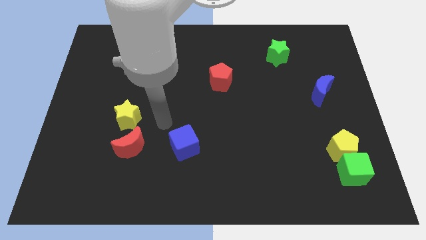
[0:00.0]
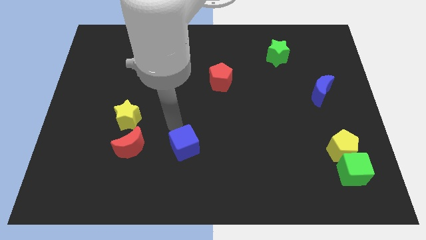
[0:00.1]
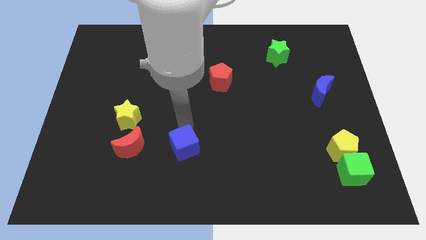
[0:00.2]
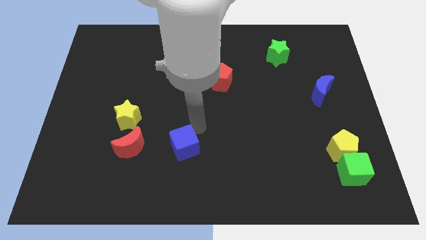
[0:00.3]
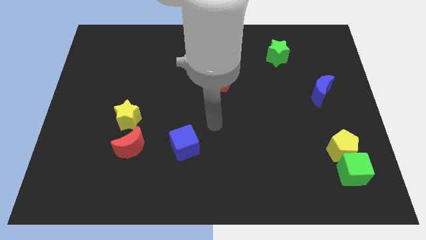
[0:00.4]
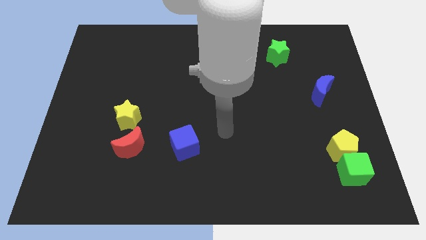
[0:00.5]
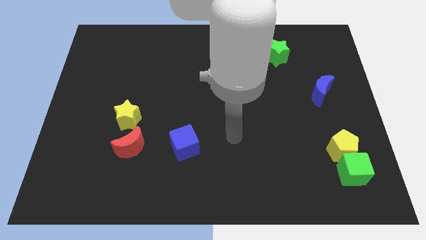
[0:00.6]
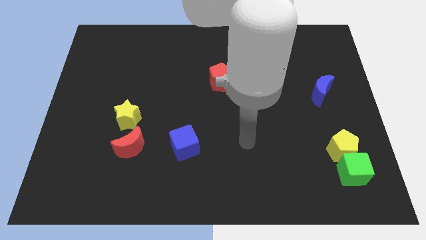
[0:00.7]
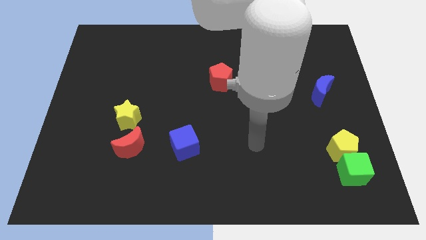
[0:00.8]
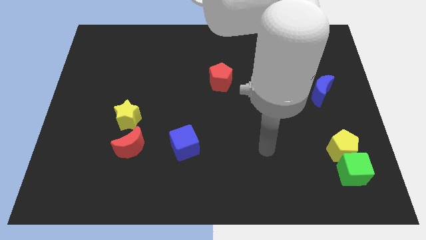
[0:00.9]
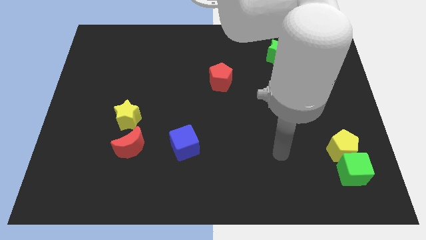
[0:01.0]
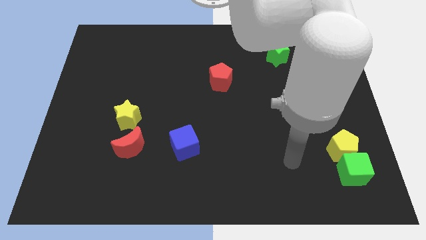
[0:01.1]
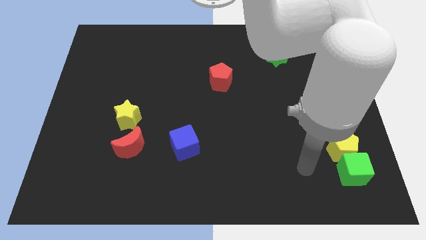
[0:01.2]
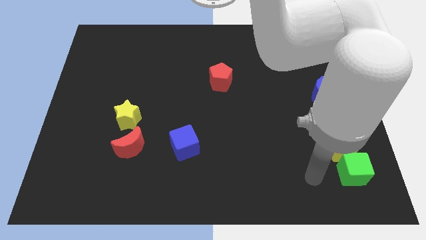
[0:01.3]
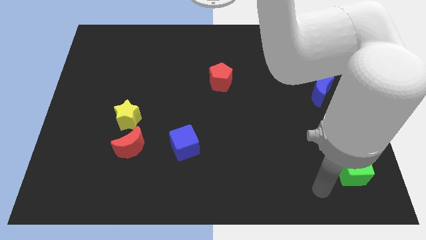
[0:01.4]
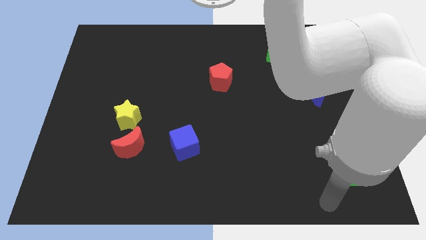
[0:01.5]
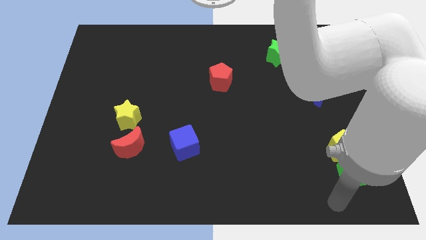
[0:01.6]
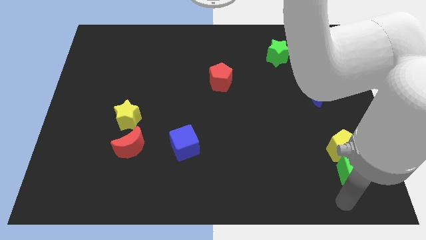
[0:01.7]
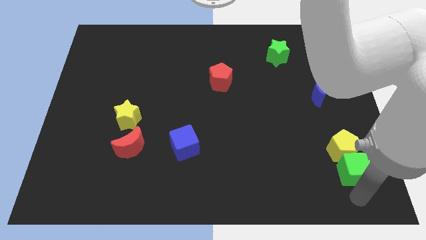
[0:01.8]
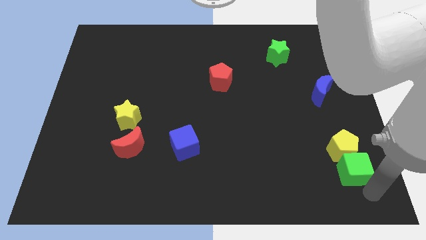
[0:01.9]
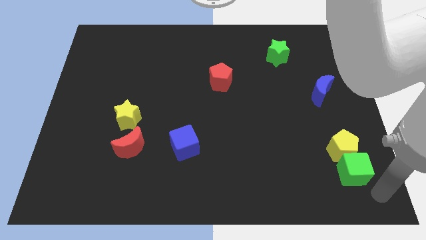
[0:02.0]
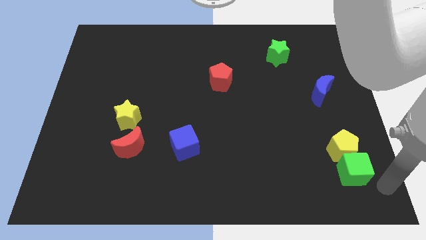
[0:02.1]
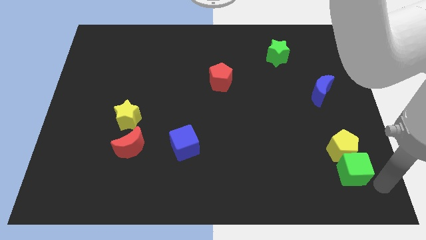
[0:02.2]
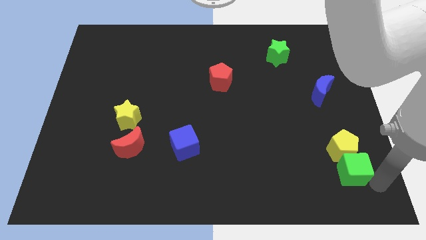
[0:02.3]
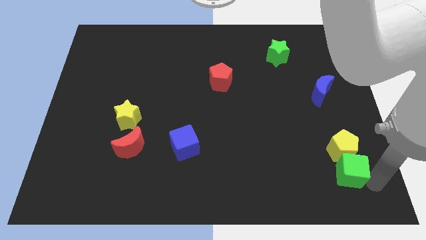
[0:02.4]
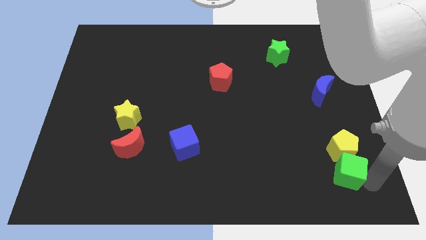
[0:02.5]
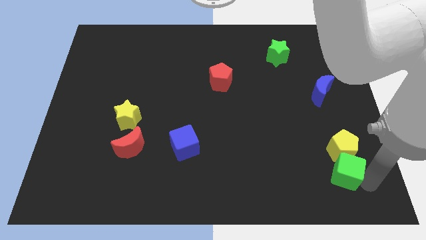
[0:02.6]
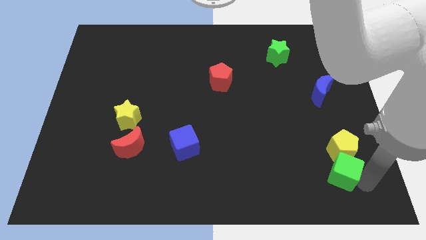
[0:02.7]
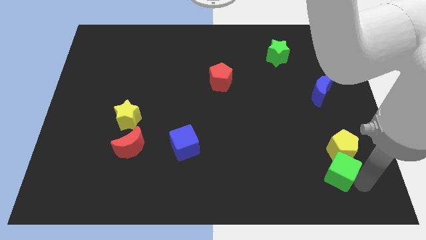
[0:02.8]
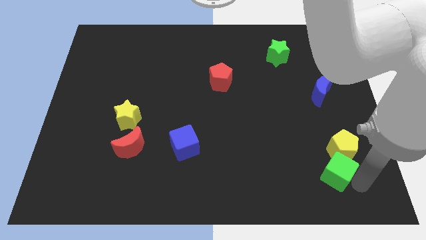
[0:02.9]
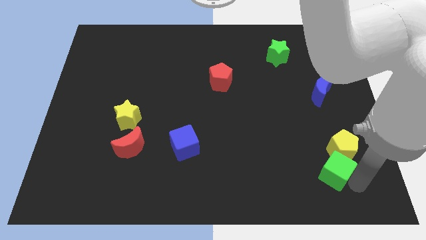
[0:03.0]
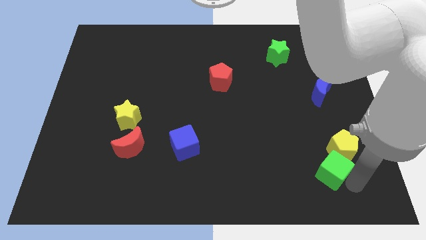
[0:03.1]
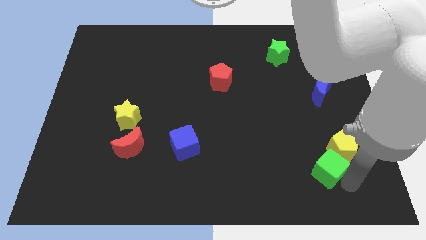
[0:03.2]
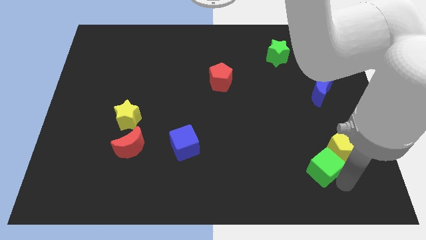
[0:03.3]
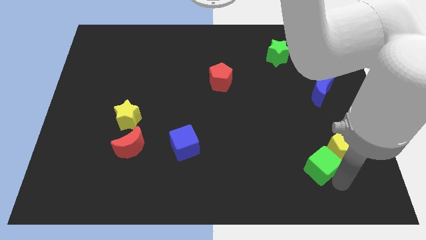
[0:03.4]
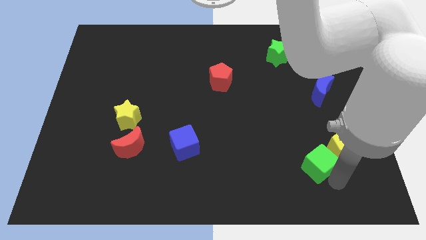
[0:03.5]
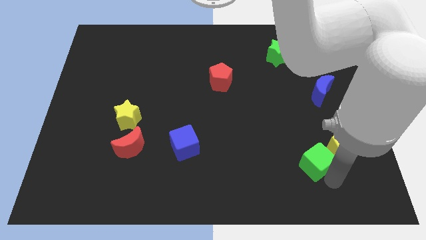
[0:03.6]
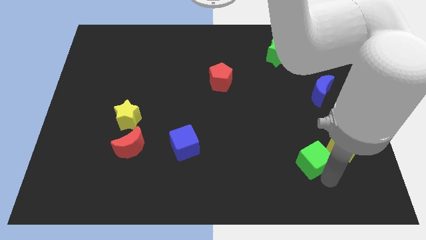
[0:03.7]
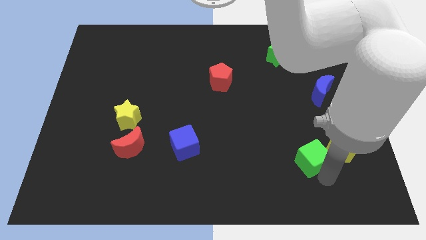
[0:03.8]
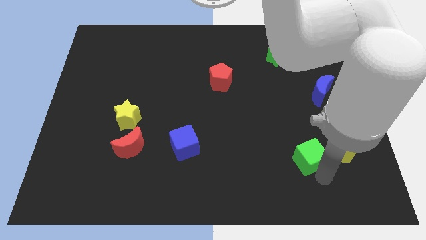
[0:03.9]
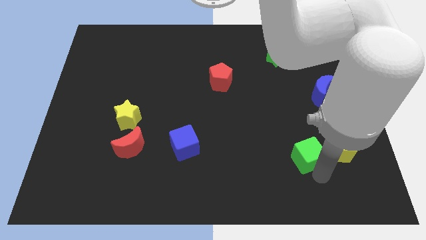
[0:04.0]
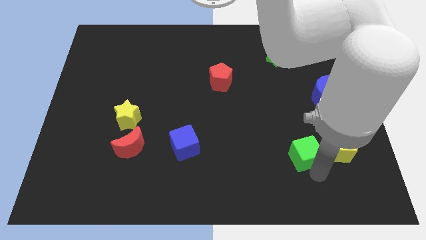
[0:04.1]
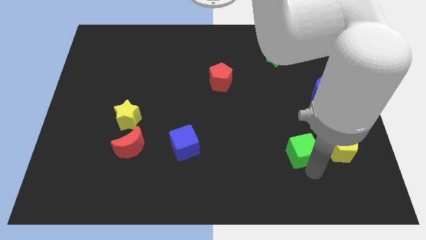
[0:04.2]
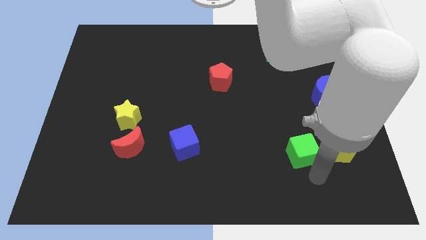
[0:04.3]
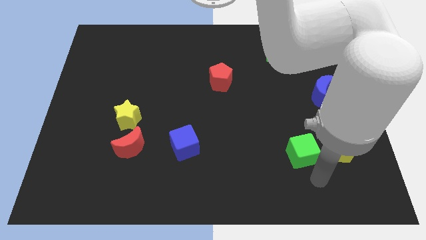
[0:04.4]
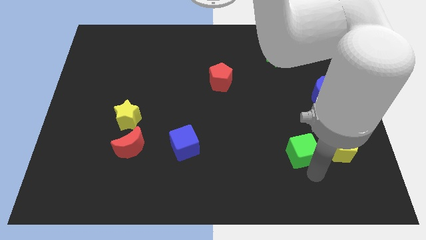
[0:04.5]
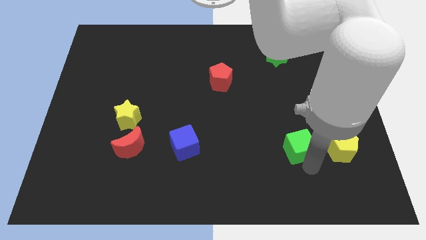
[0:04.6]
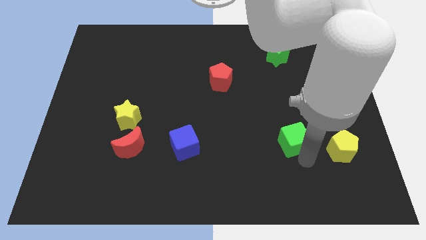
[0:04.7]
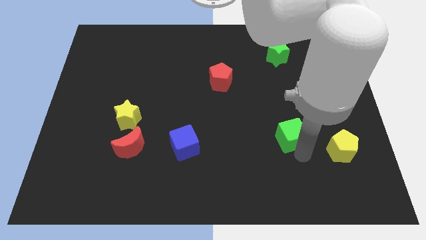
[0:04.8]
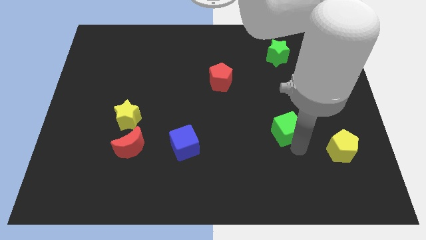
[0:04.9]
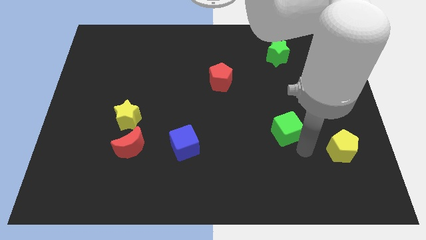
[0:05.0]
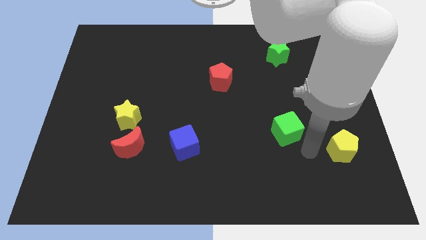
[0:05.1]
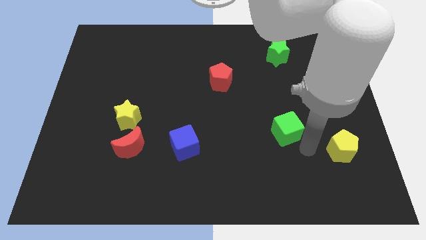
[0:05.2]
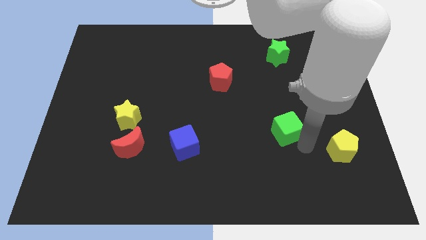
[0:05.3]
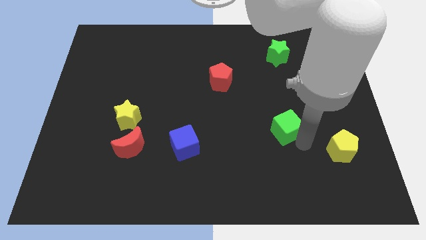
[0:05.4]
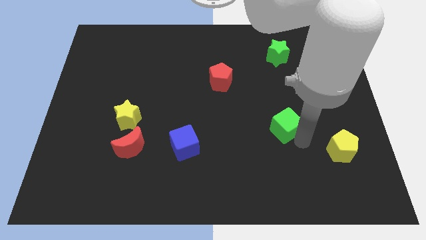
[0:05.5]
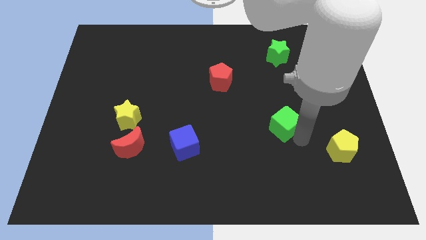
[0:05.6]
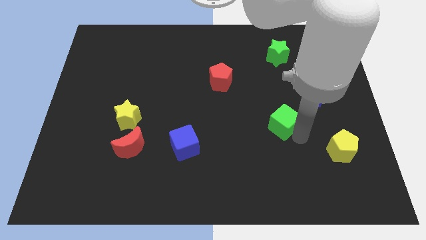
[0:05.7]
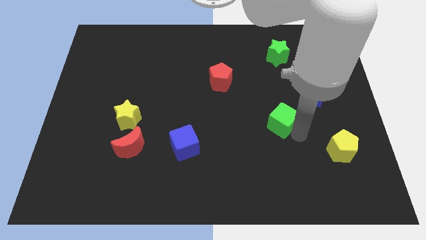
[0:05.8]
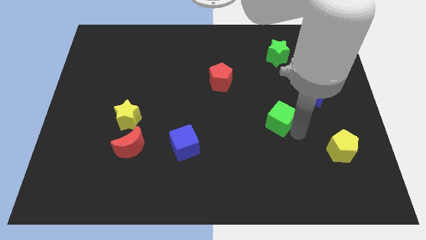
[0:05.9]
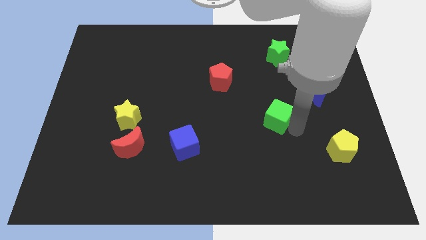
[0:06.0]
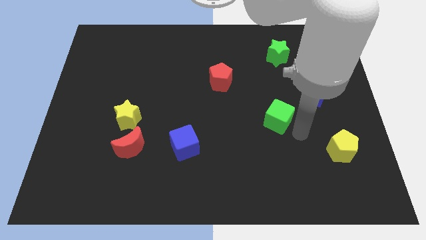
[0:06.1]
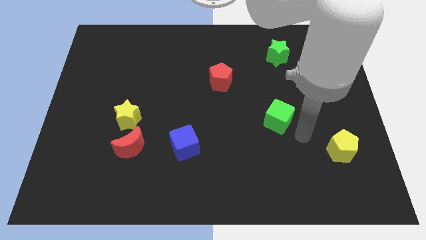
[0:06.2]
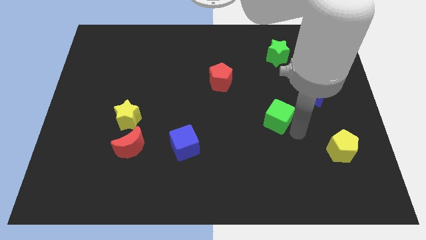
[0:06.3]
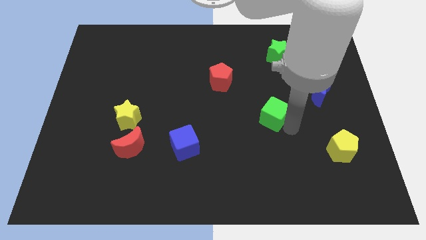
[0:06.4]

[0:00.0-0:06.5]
move the green cube upwards and then left
